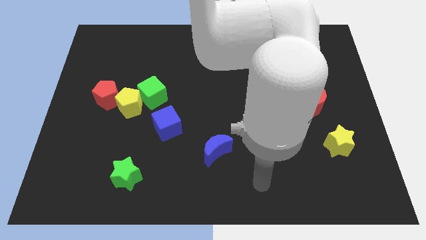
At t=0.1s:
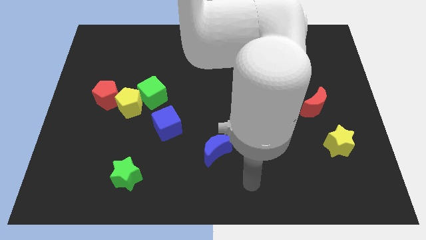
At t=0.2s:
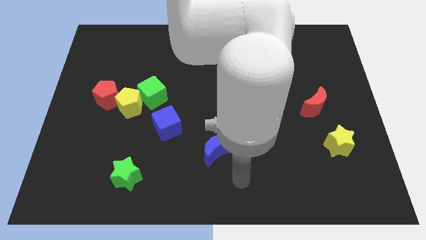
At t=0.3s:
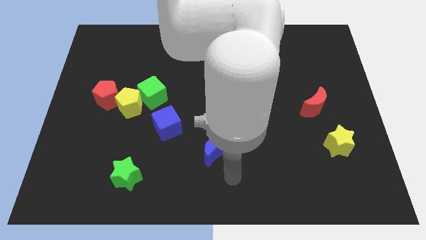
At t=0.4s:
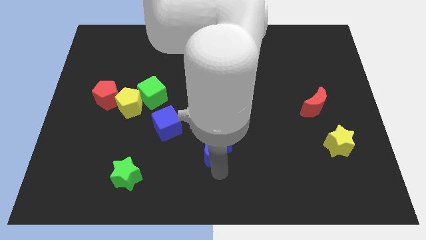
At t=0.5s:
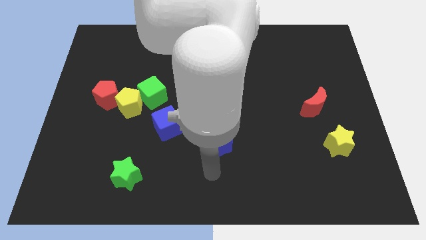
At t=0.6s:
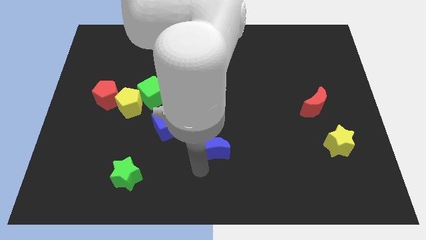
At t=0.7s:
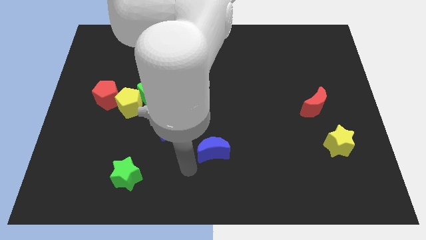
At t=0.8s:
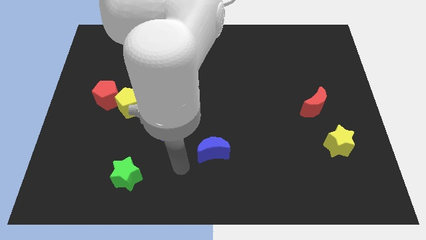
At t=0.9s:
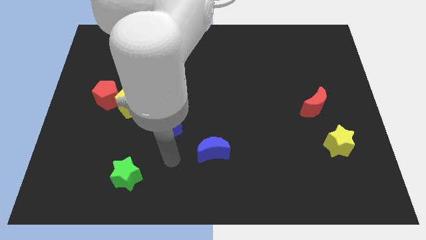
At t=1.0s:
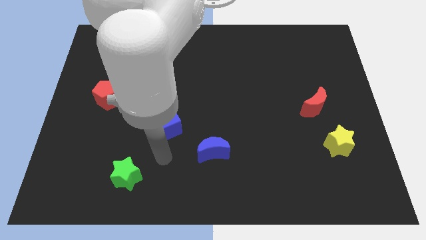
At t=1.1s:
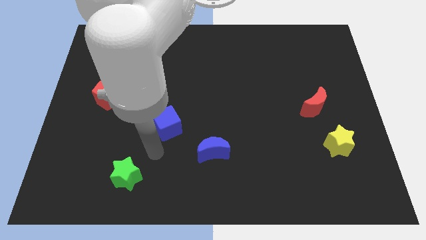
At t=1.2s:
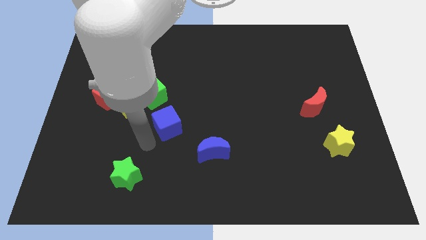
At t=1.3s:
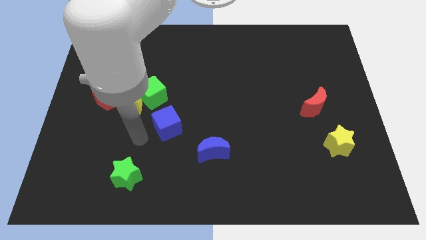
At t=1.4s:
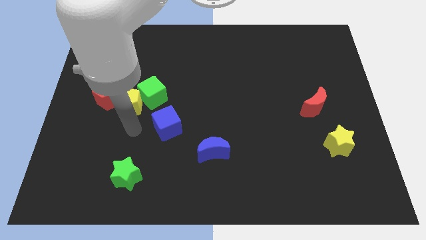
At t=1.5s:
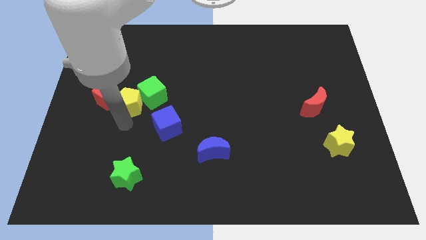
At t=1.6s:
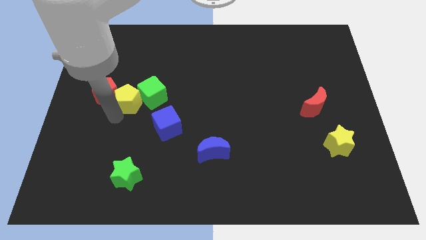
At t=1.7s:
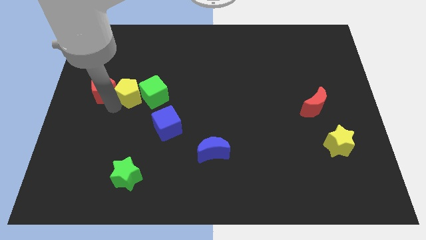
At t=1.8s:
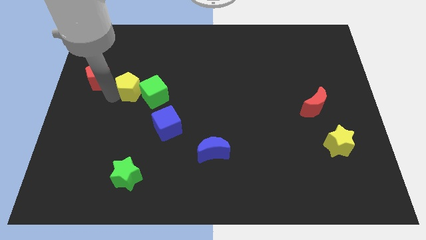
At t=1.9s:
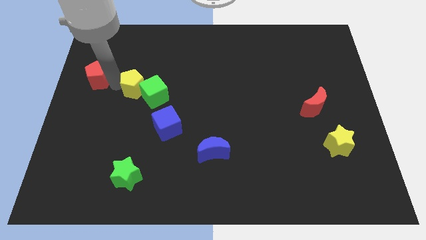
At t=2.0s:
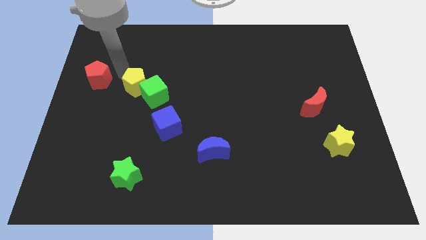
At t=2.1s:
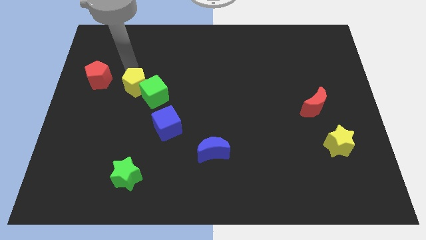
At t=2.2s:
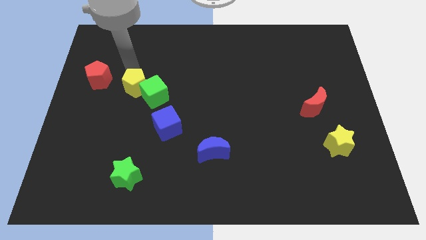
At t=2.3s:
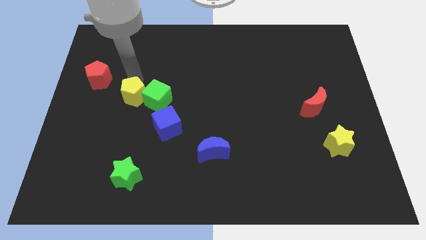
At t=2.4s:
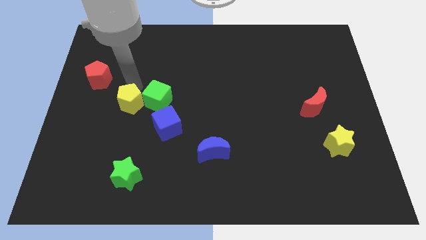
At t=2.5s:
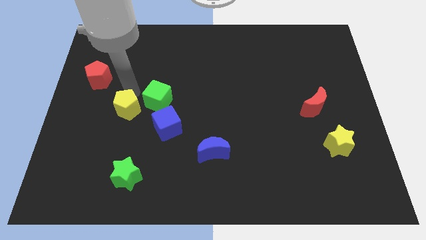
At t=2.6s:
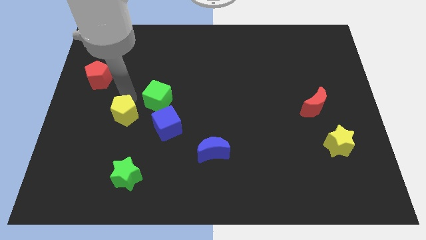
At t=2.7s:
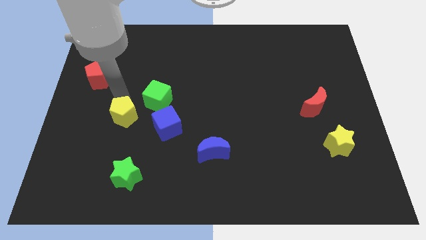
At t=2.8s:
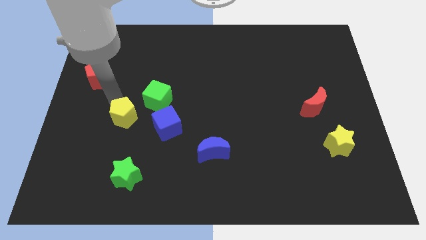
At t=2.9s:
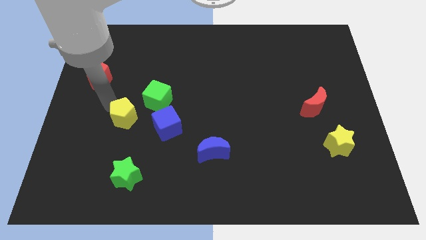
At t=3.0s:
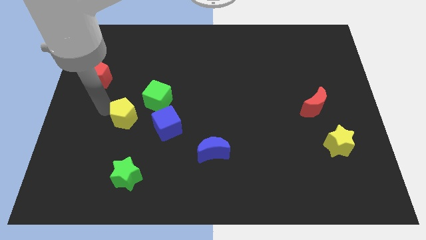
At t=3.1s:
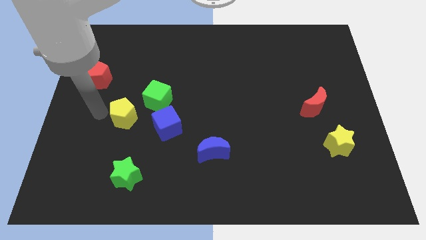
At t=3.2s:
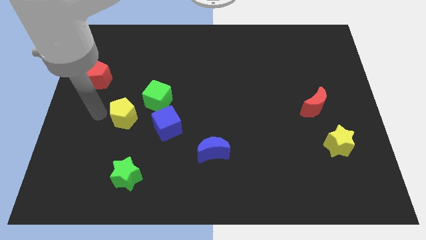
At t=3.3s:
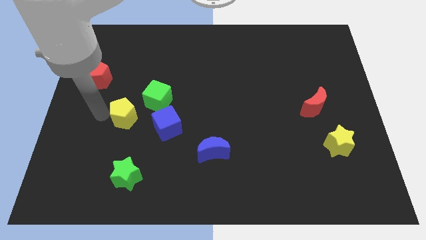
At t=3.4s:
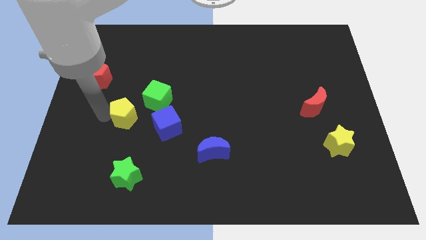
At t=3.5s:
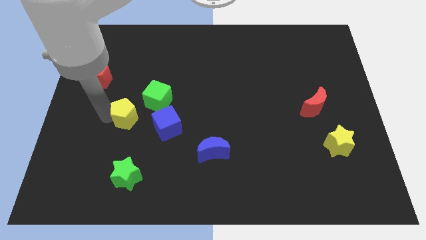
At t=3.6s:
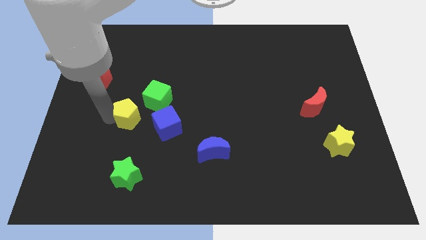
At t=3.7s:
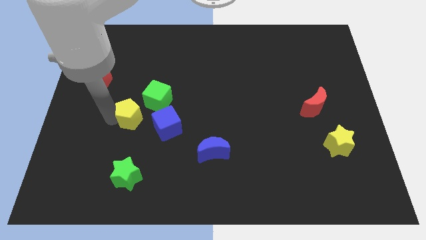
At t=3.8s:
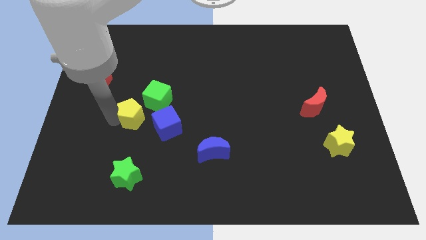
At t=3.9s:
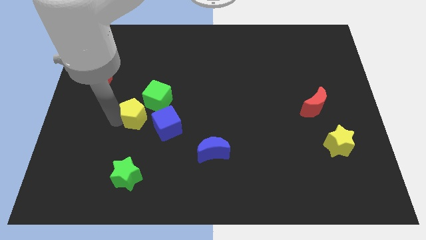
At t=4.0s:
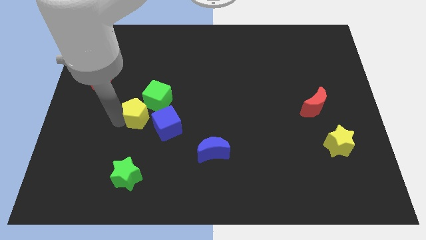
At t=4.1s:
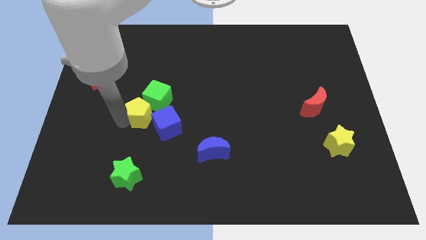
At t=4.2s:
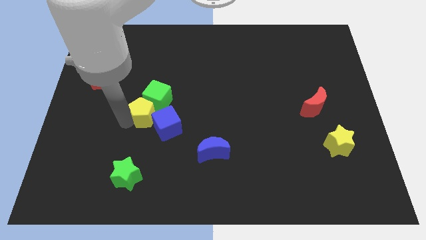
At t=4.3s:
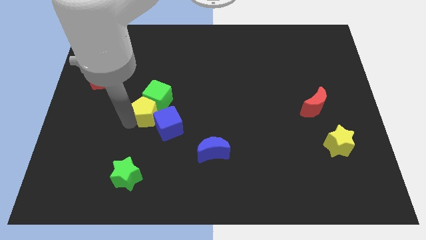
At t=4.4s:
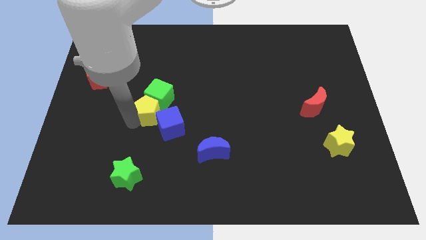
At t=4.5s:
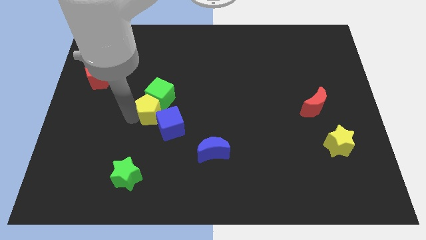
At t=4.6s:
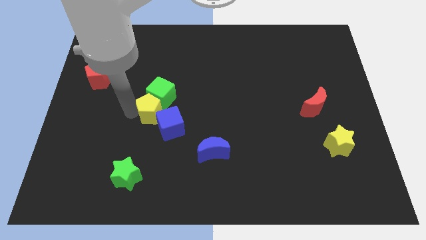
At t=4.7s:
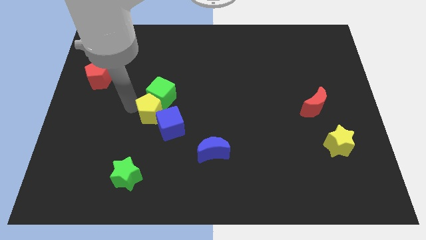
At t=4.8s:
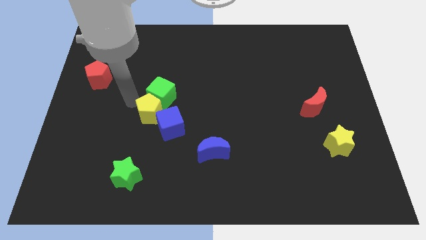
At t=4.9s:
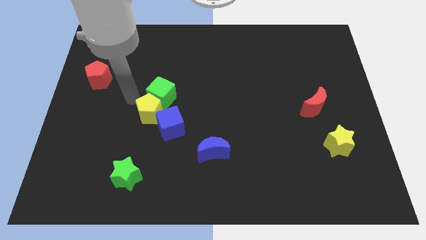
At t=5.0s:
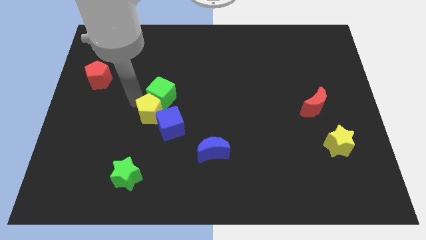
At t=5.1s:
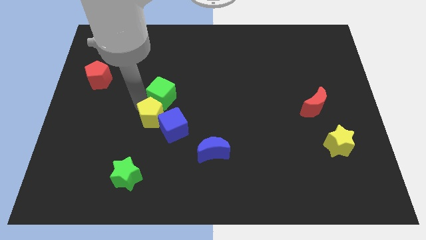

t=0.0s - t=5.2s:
move the yellow pentagon to the blue cube
